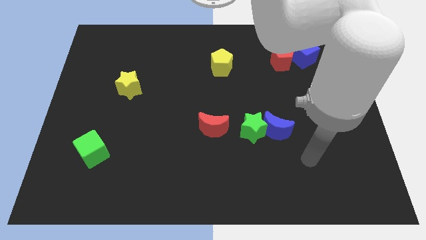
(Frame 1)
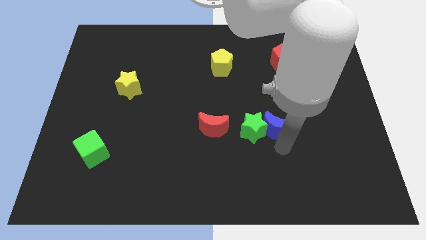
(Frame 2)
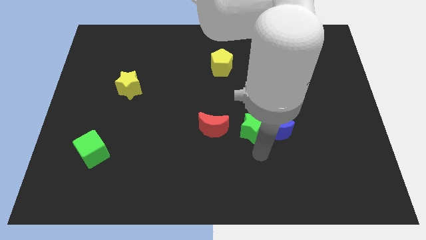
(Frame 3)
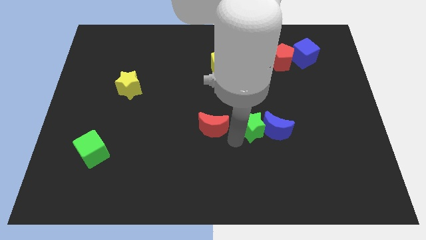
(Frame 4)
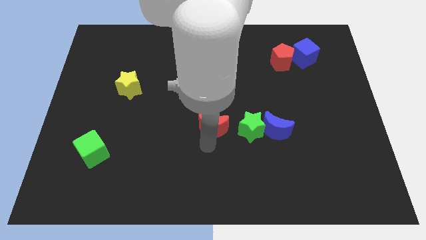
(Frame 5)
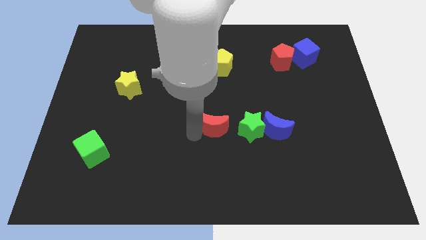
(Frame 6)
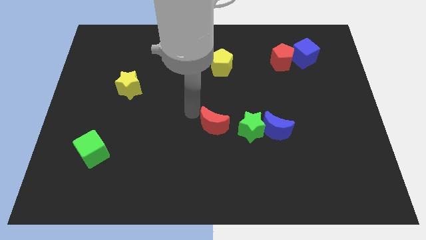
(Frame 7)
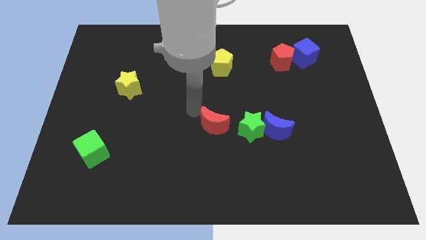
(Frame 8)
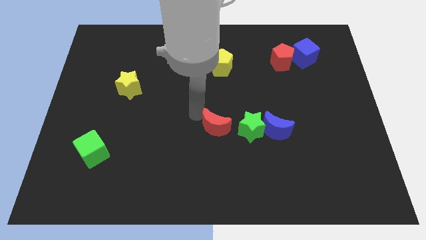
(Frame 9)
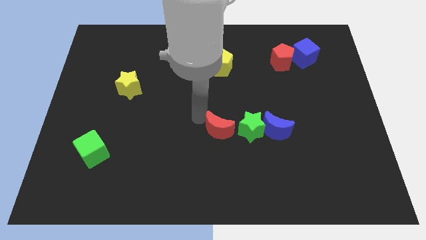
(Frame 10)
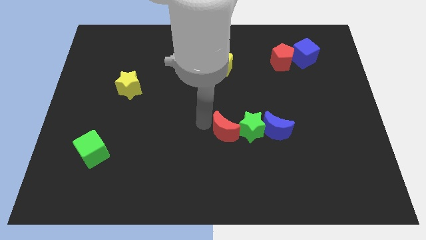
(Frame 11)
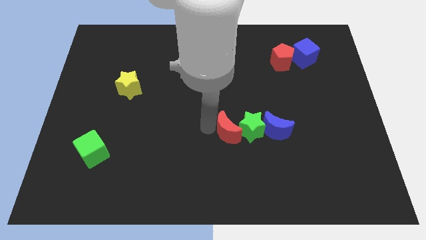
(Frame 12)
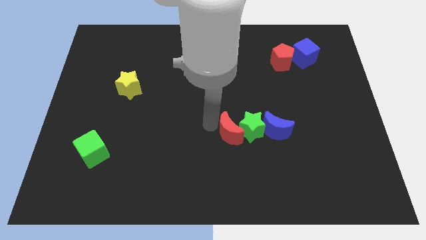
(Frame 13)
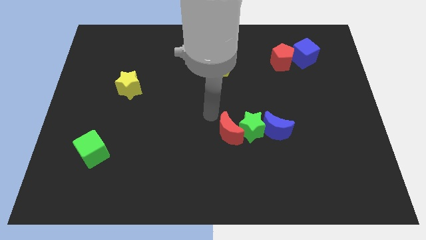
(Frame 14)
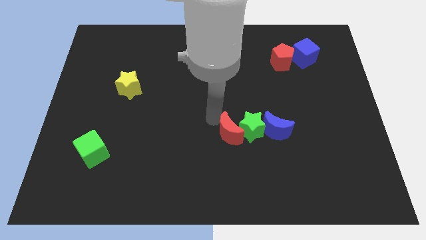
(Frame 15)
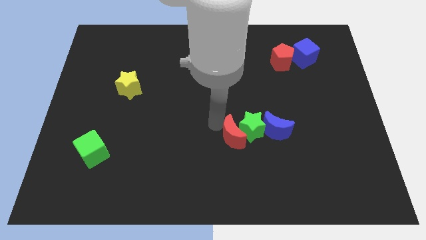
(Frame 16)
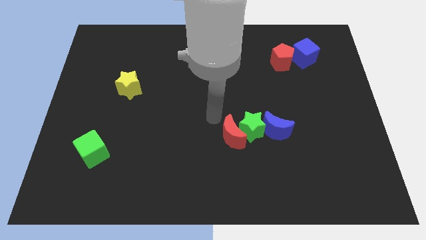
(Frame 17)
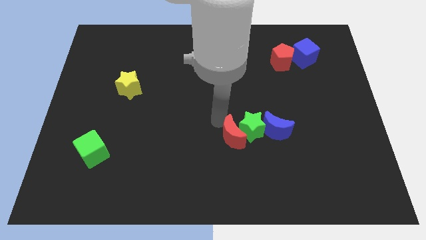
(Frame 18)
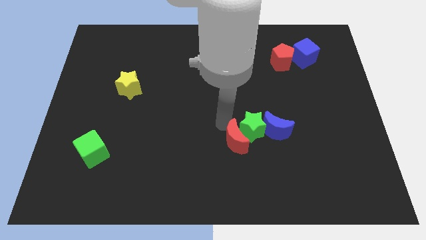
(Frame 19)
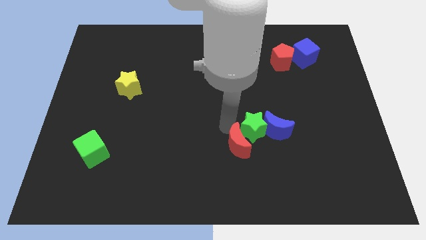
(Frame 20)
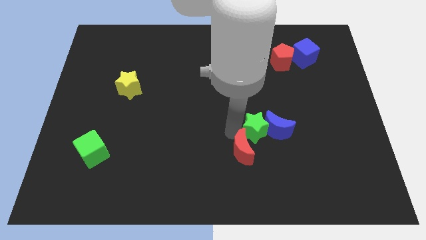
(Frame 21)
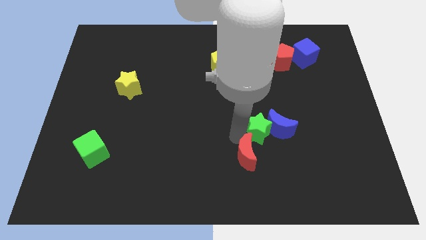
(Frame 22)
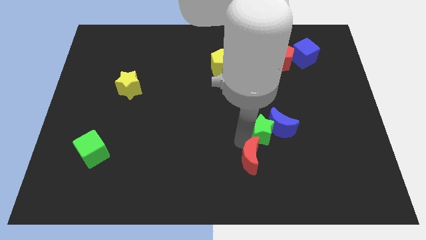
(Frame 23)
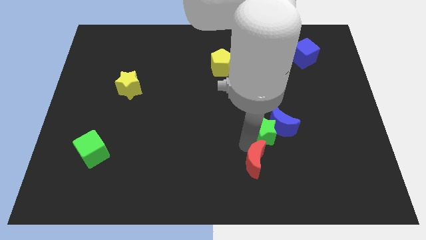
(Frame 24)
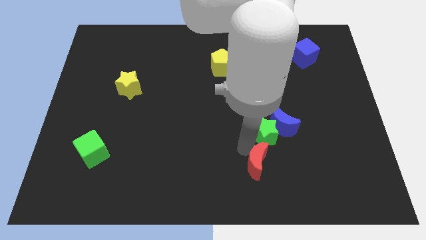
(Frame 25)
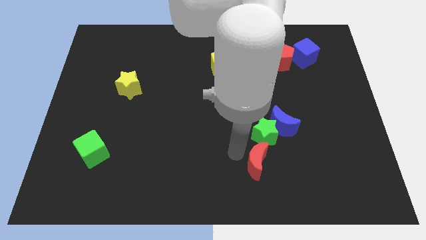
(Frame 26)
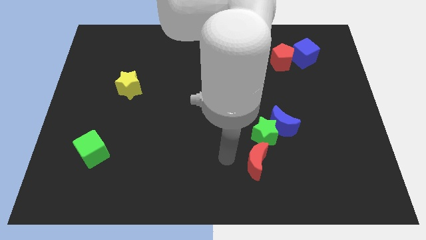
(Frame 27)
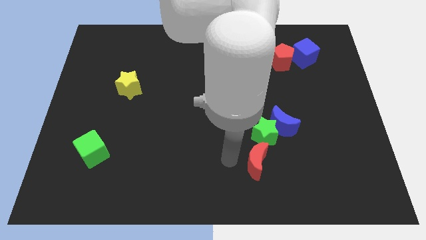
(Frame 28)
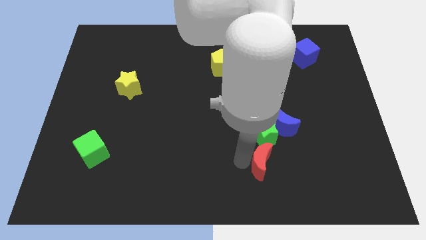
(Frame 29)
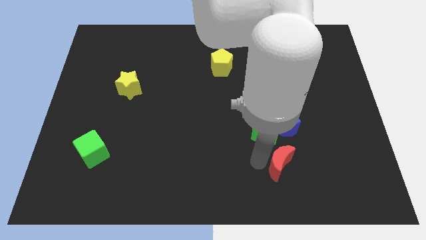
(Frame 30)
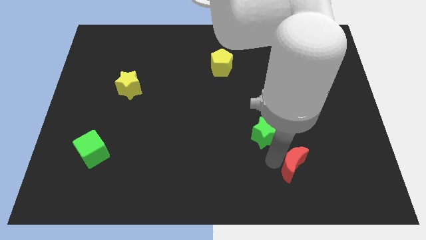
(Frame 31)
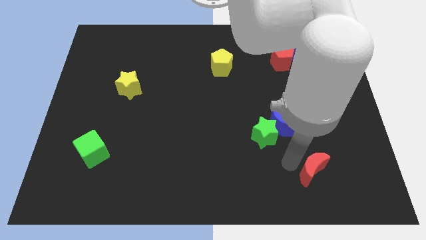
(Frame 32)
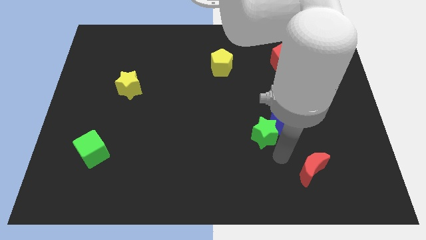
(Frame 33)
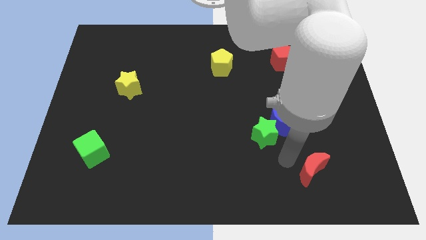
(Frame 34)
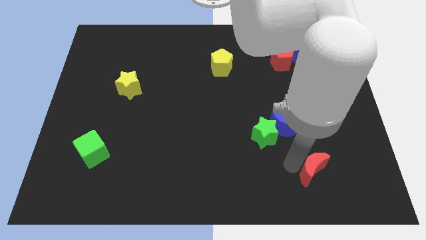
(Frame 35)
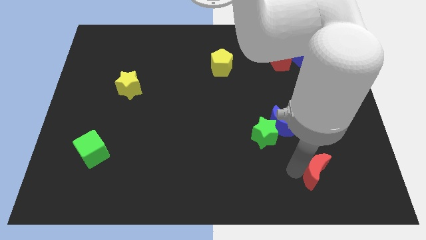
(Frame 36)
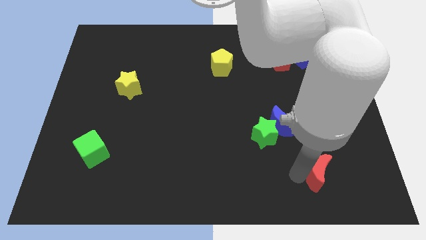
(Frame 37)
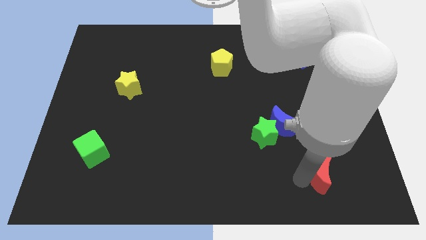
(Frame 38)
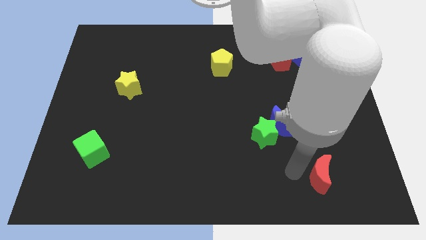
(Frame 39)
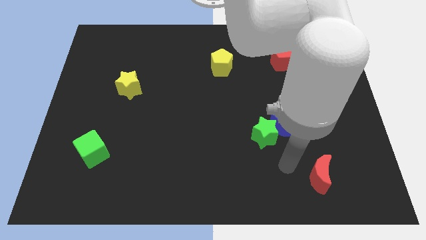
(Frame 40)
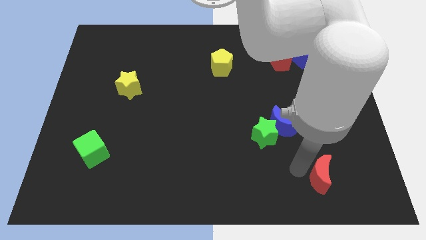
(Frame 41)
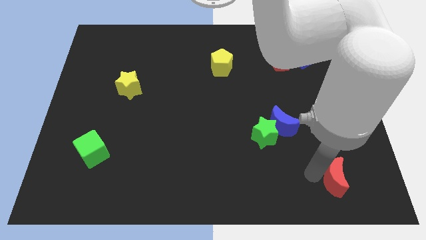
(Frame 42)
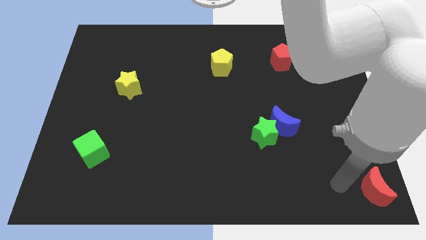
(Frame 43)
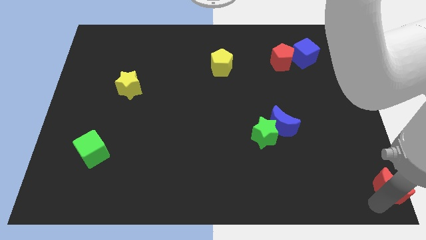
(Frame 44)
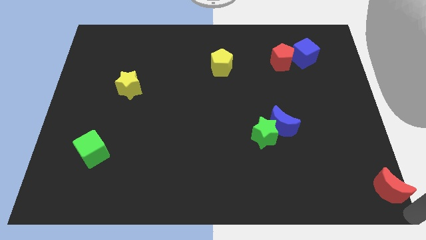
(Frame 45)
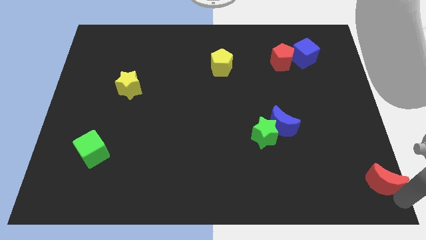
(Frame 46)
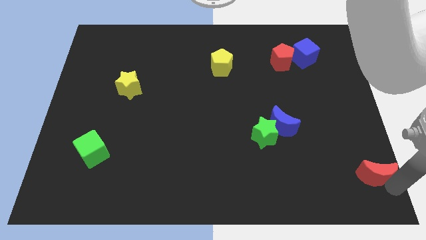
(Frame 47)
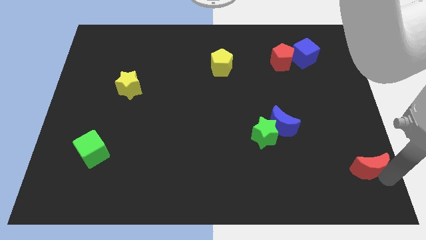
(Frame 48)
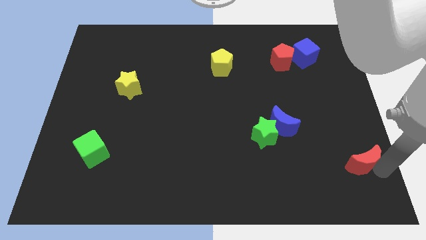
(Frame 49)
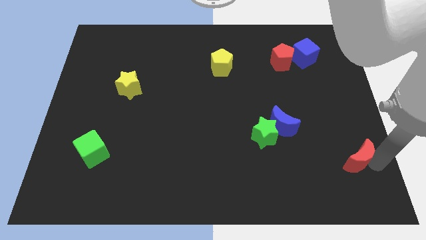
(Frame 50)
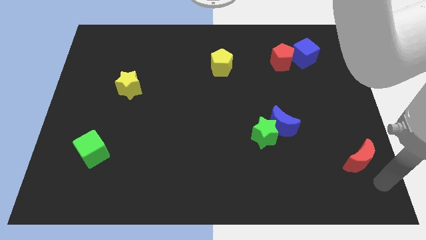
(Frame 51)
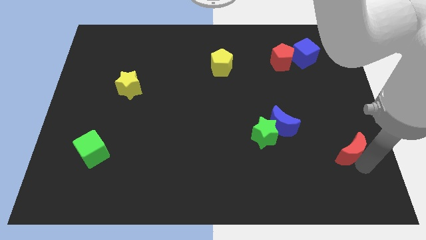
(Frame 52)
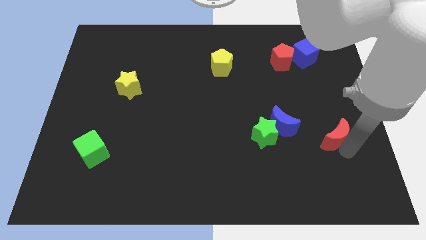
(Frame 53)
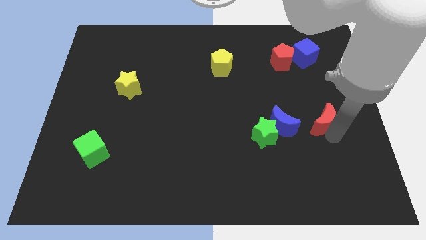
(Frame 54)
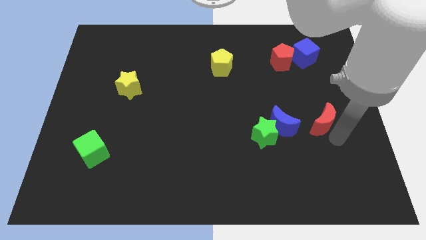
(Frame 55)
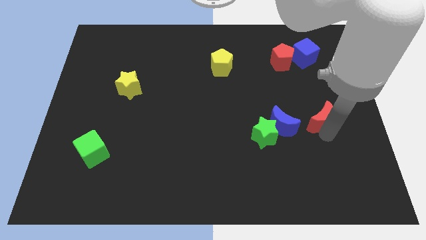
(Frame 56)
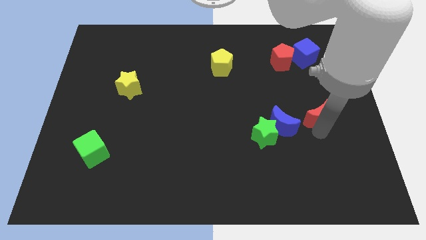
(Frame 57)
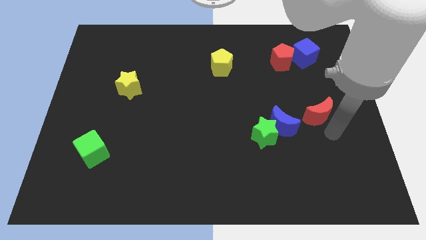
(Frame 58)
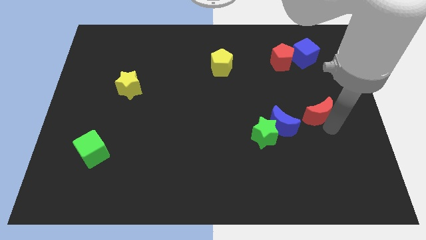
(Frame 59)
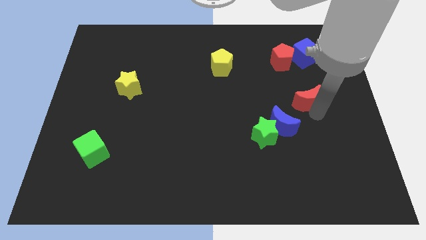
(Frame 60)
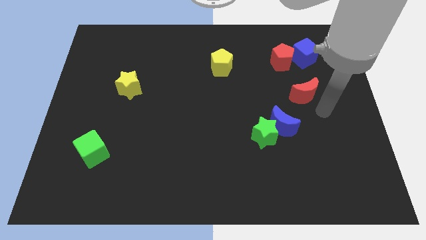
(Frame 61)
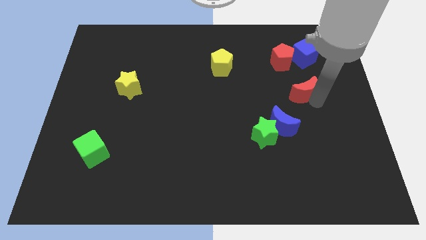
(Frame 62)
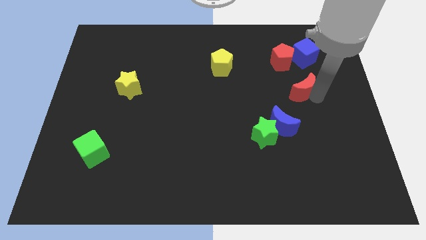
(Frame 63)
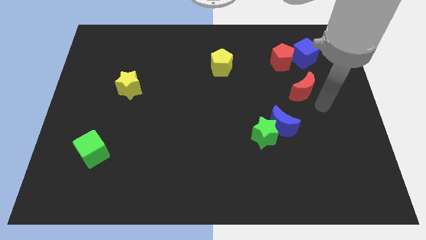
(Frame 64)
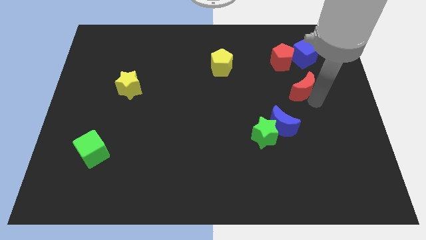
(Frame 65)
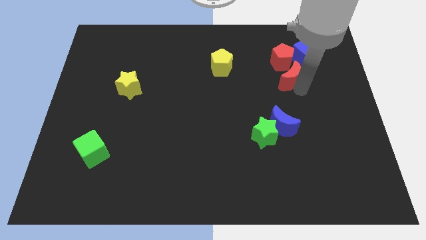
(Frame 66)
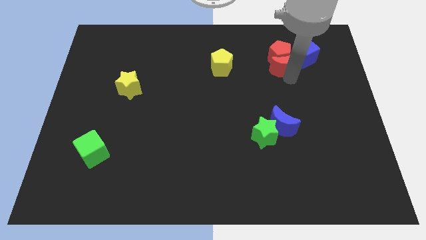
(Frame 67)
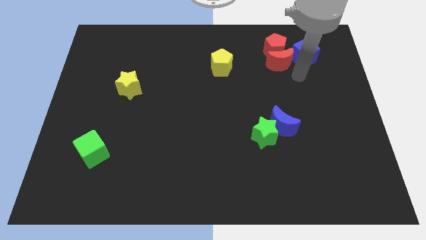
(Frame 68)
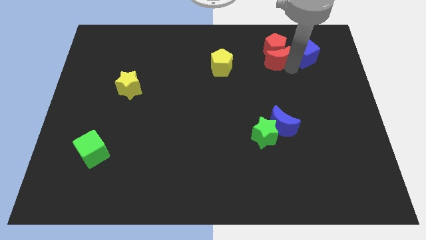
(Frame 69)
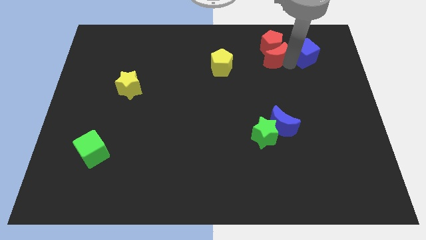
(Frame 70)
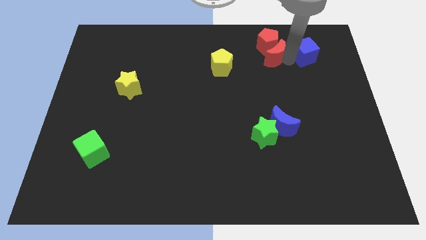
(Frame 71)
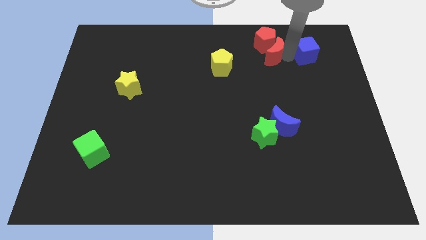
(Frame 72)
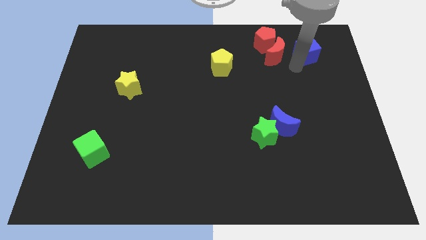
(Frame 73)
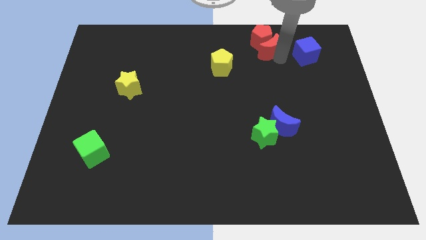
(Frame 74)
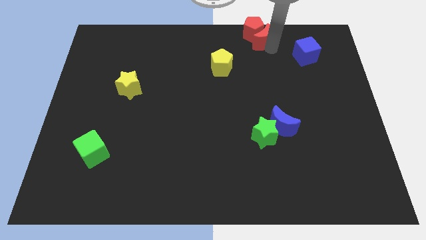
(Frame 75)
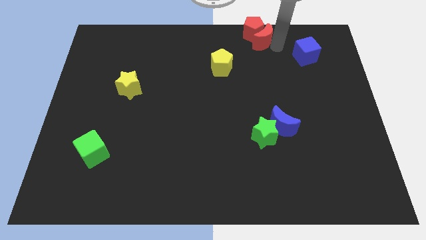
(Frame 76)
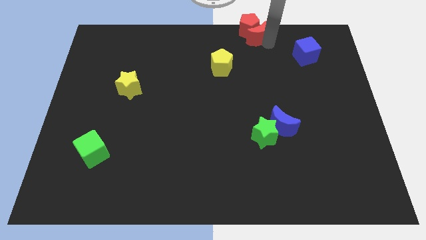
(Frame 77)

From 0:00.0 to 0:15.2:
push the red moon to the top
